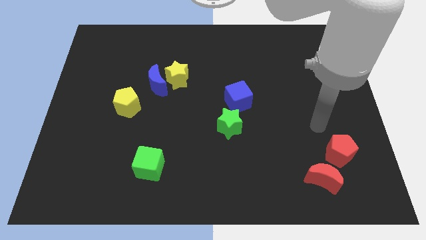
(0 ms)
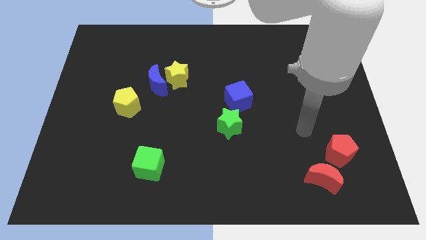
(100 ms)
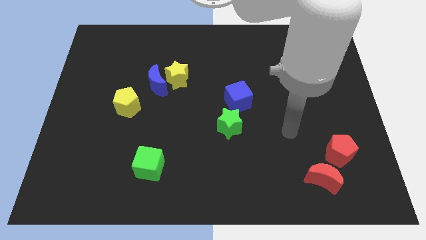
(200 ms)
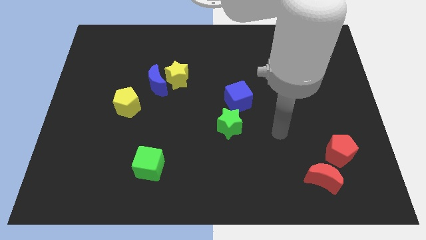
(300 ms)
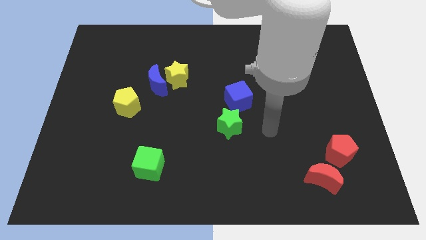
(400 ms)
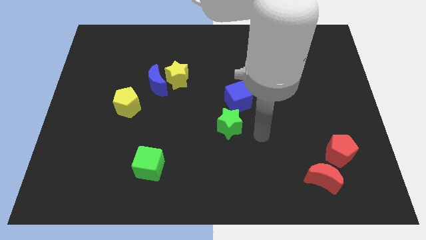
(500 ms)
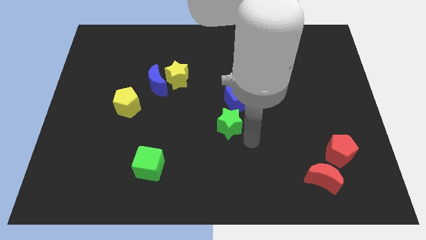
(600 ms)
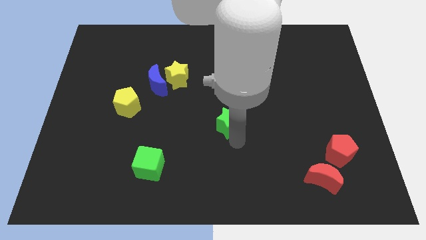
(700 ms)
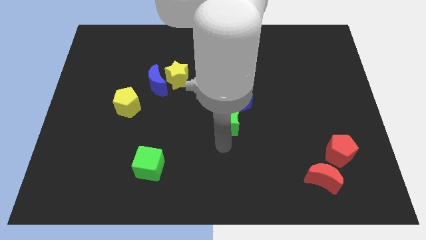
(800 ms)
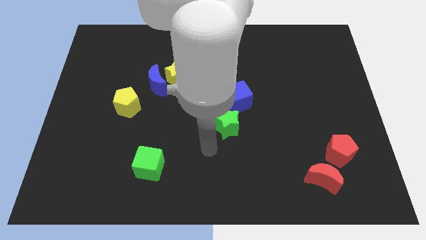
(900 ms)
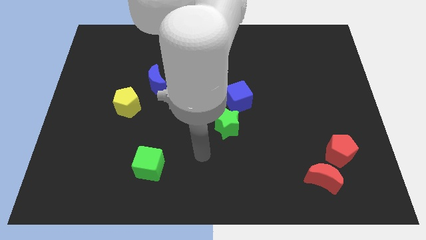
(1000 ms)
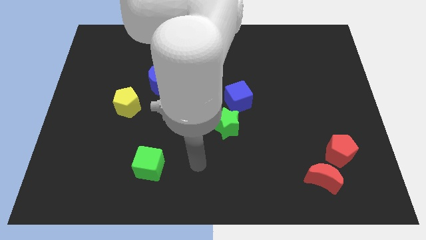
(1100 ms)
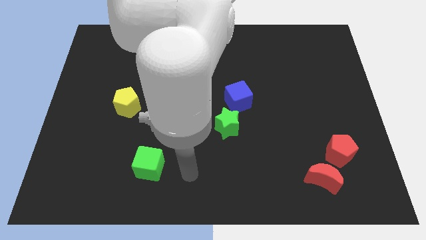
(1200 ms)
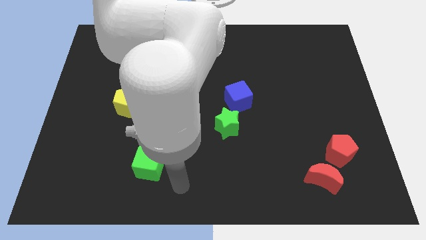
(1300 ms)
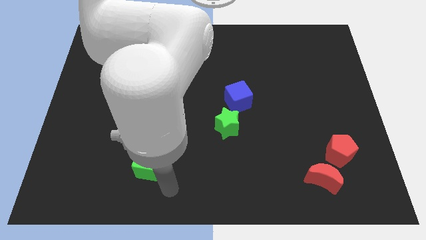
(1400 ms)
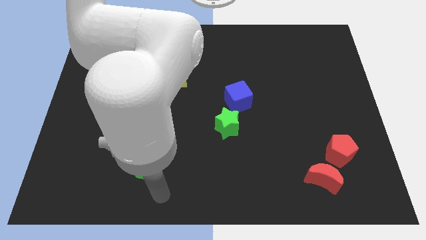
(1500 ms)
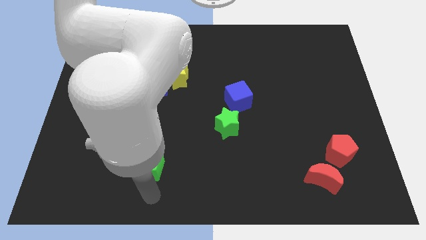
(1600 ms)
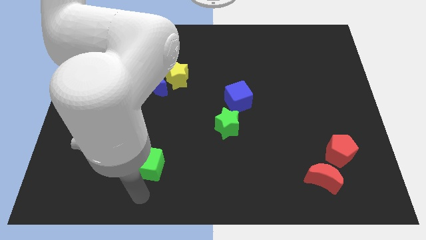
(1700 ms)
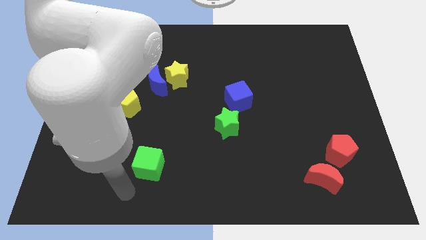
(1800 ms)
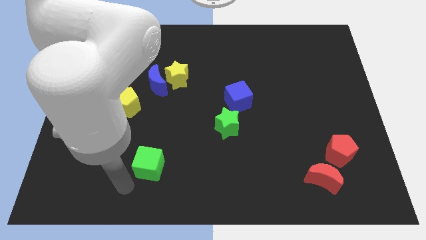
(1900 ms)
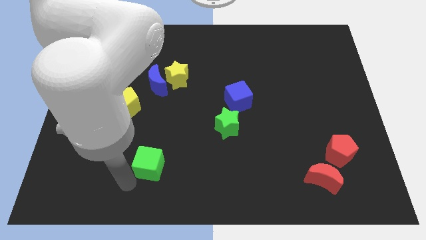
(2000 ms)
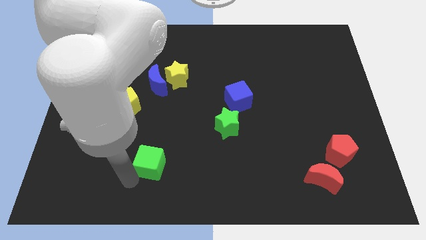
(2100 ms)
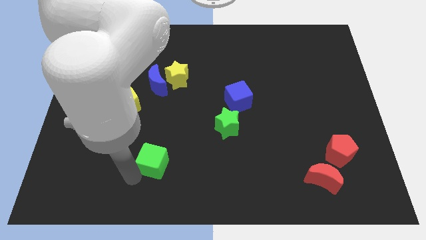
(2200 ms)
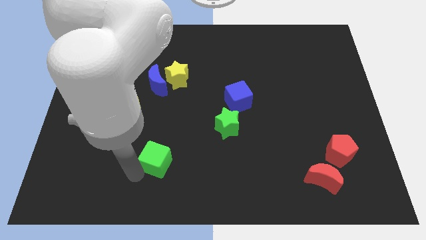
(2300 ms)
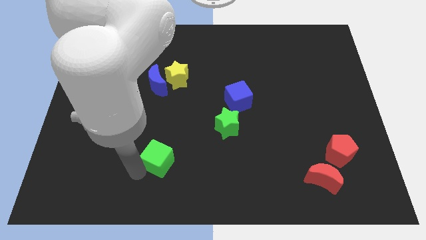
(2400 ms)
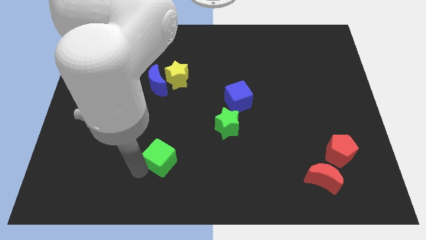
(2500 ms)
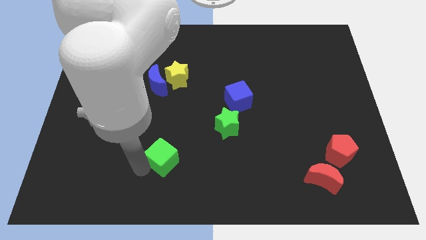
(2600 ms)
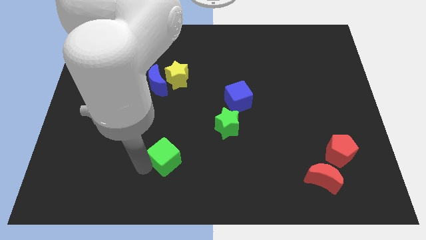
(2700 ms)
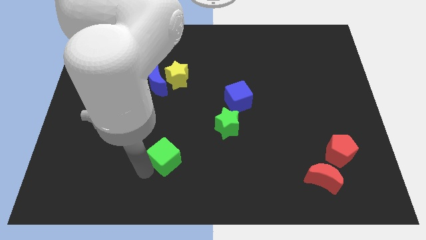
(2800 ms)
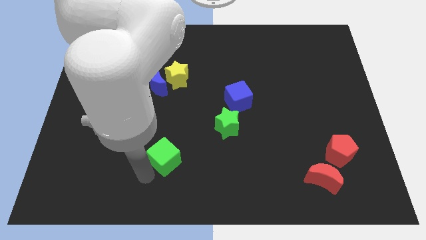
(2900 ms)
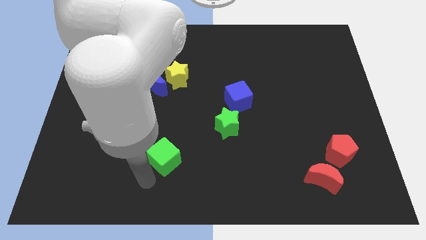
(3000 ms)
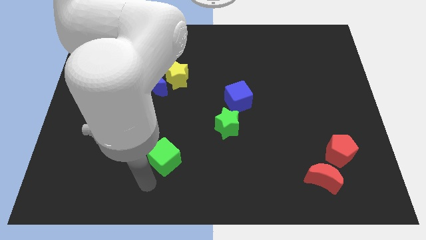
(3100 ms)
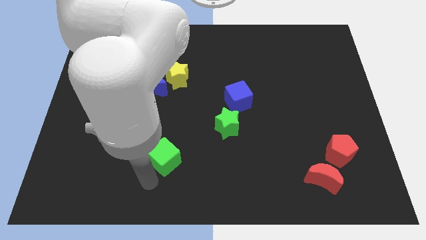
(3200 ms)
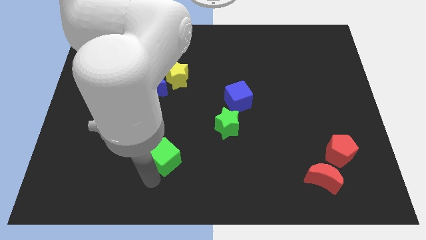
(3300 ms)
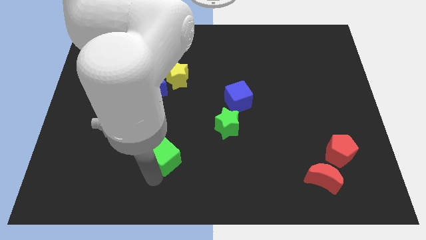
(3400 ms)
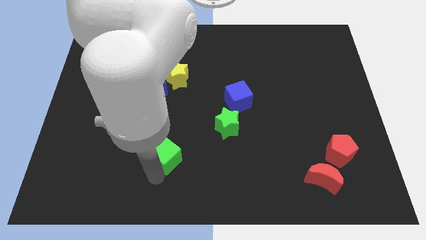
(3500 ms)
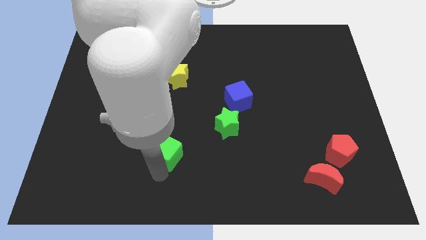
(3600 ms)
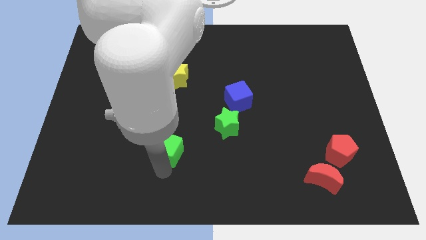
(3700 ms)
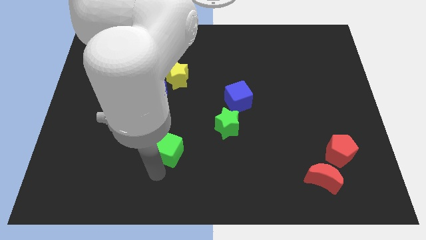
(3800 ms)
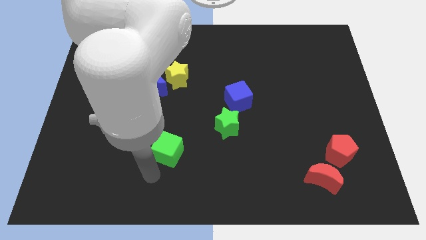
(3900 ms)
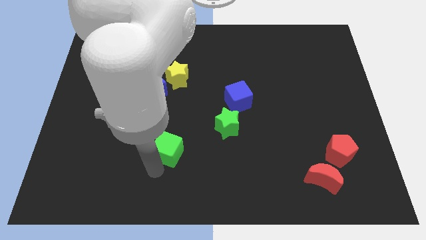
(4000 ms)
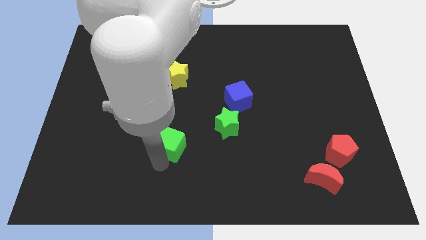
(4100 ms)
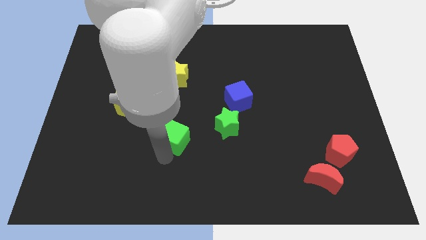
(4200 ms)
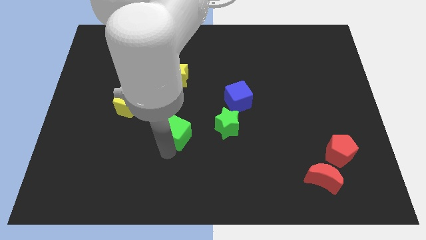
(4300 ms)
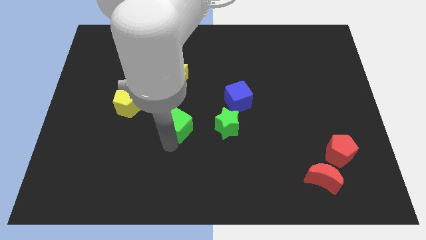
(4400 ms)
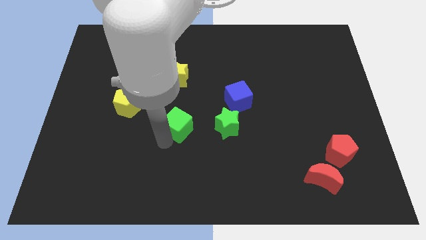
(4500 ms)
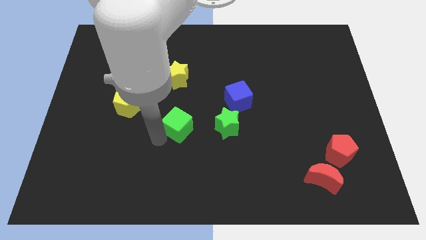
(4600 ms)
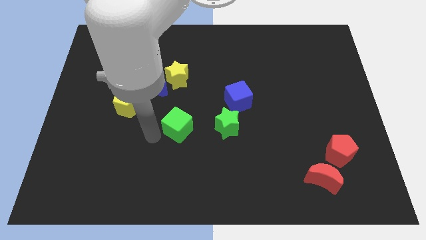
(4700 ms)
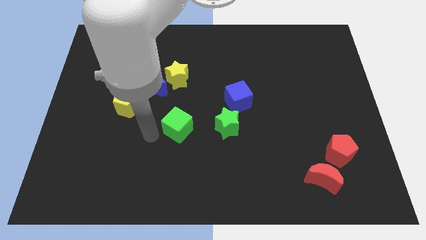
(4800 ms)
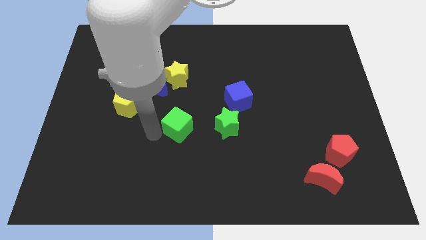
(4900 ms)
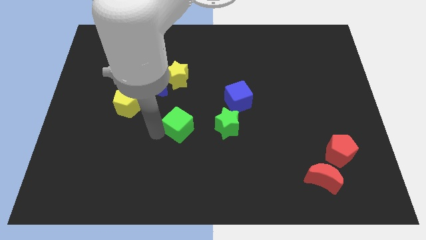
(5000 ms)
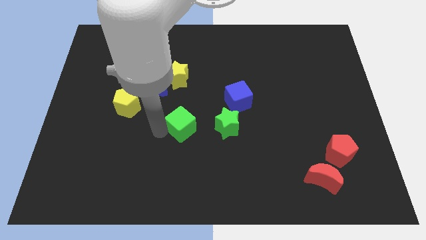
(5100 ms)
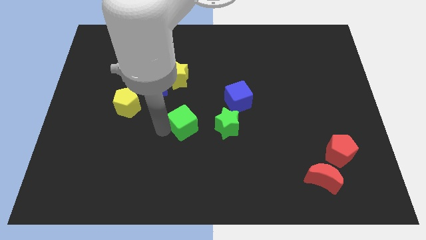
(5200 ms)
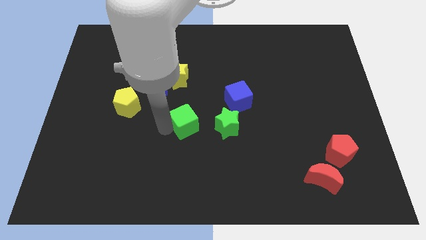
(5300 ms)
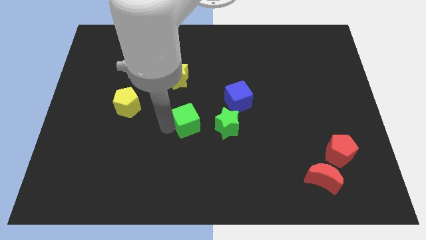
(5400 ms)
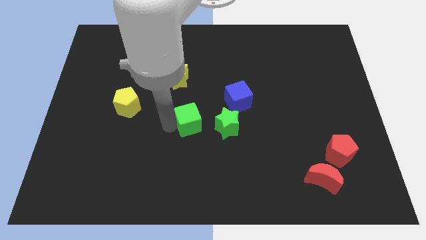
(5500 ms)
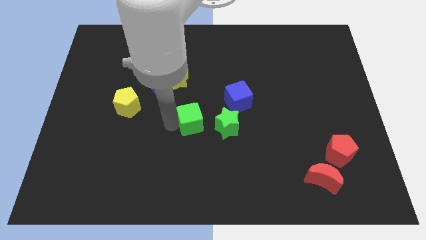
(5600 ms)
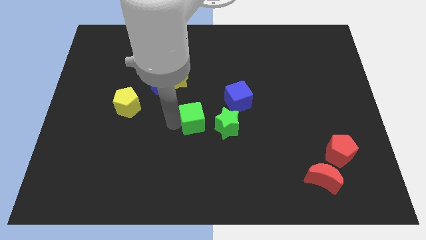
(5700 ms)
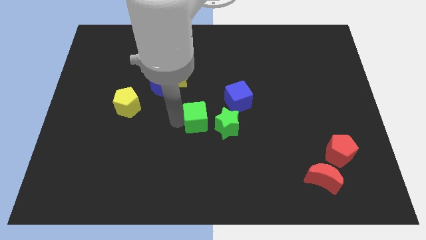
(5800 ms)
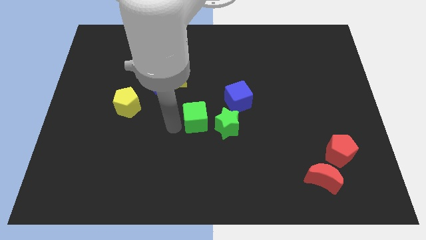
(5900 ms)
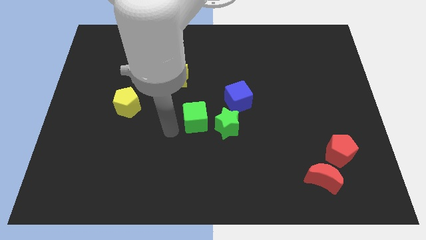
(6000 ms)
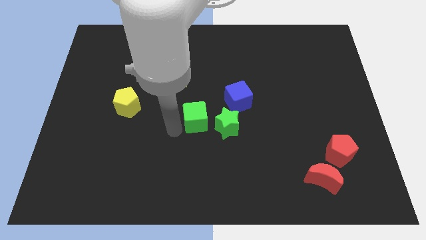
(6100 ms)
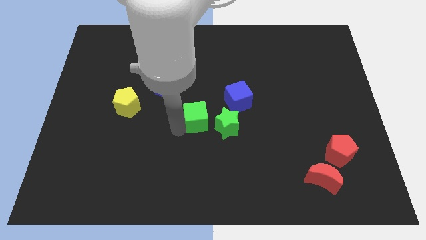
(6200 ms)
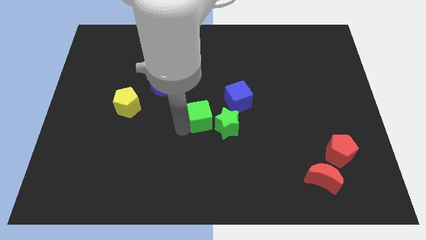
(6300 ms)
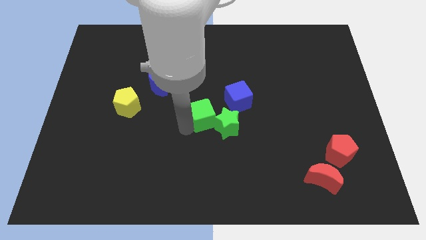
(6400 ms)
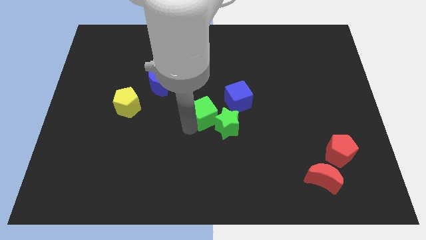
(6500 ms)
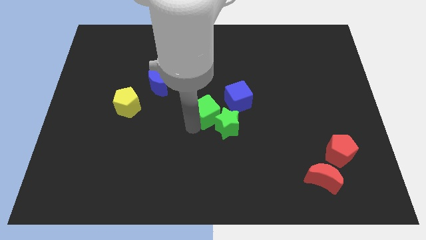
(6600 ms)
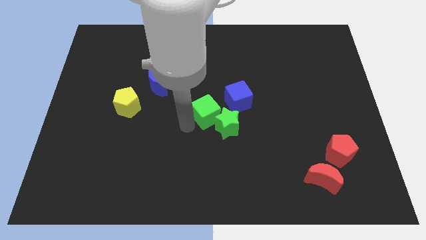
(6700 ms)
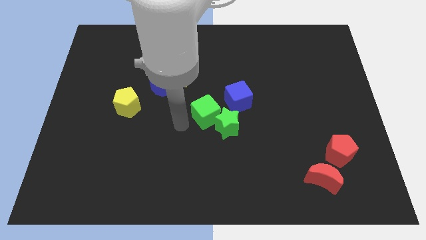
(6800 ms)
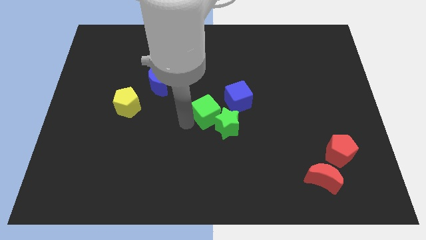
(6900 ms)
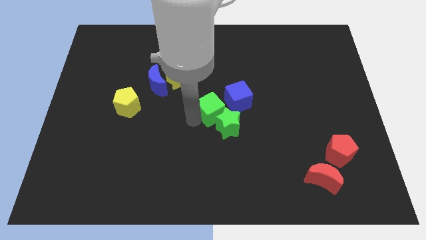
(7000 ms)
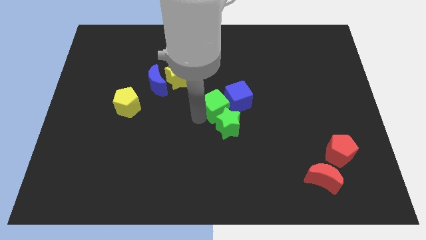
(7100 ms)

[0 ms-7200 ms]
put the green cube towards the blue cube
